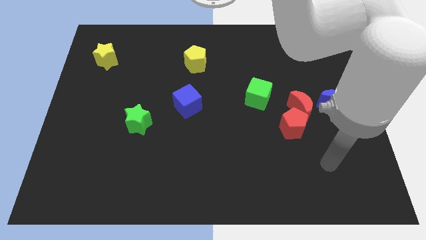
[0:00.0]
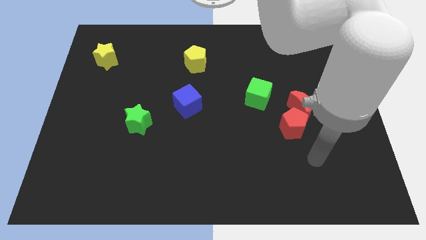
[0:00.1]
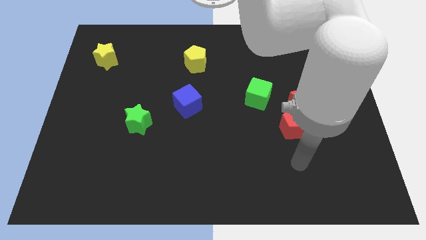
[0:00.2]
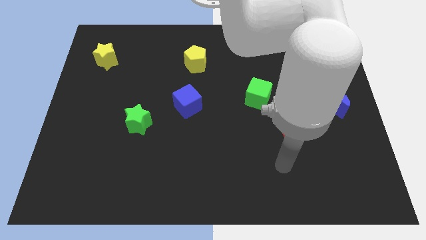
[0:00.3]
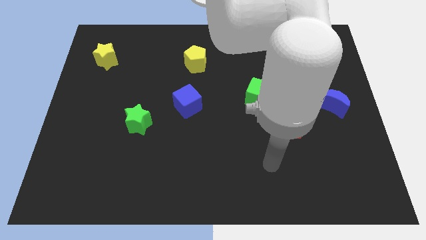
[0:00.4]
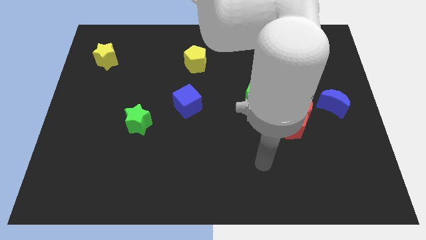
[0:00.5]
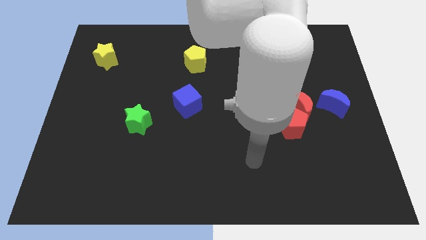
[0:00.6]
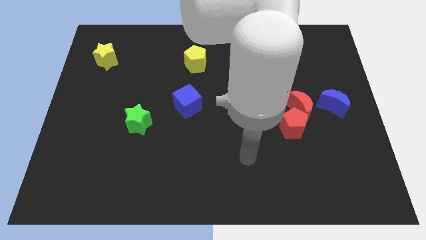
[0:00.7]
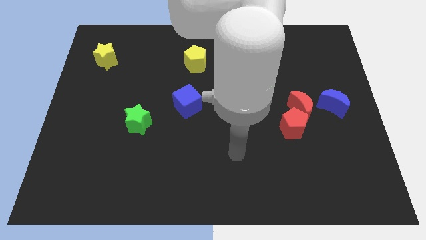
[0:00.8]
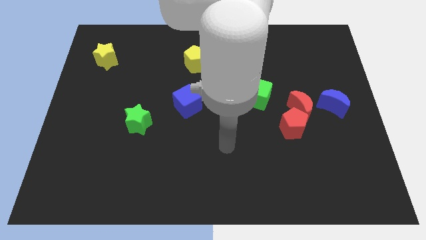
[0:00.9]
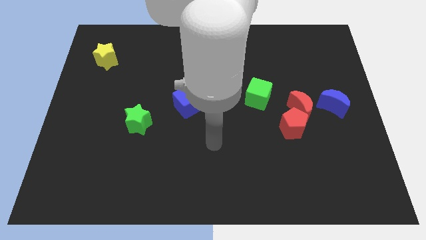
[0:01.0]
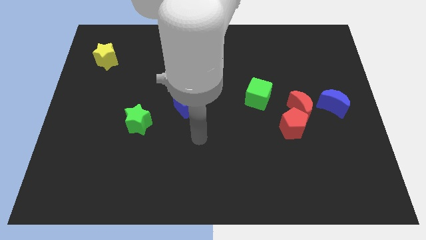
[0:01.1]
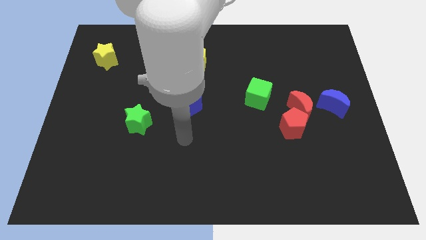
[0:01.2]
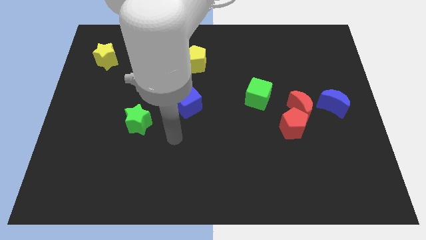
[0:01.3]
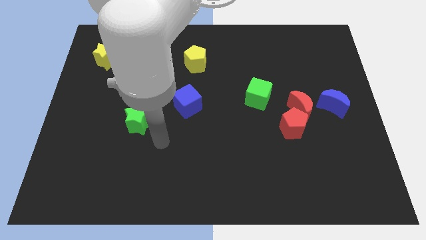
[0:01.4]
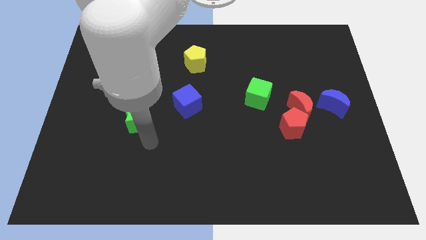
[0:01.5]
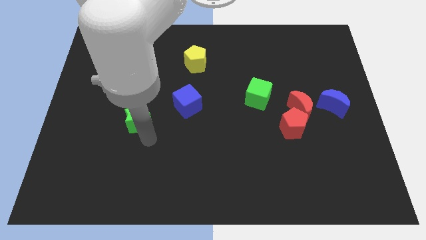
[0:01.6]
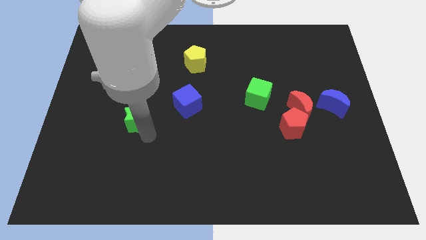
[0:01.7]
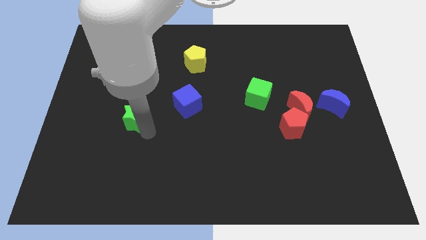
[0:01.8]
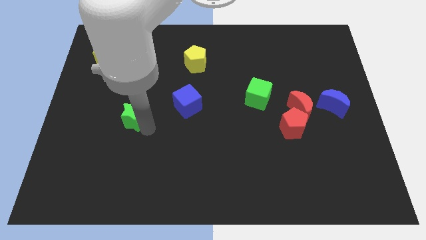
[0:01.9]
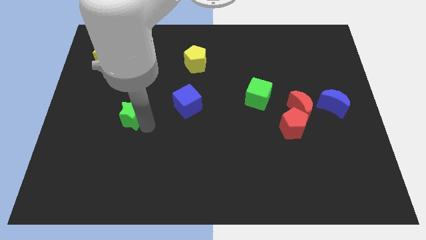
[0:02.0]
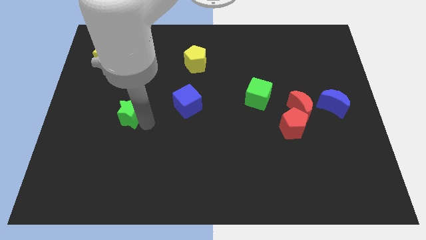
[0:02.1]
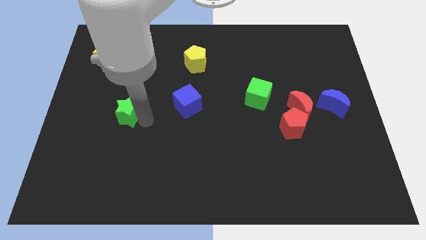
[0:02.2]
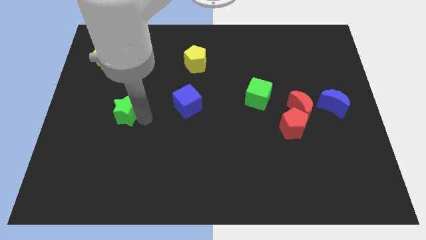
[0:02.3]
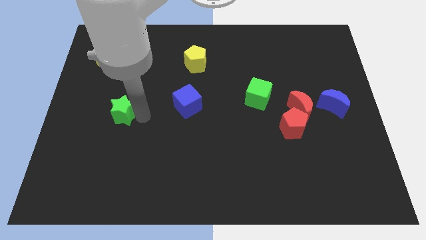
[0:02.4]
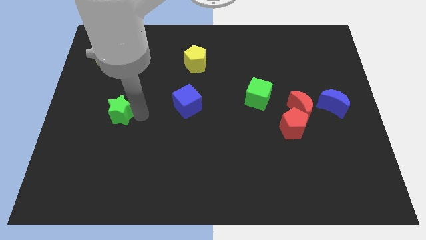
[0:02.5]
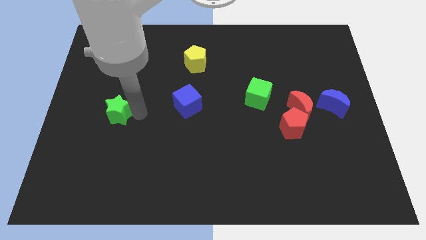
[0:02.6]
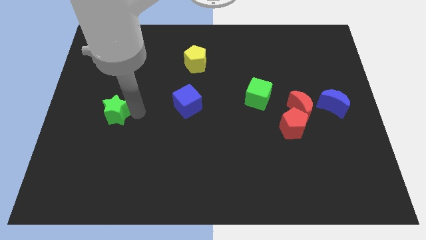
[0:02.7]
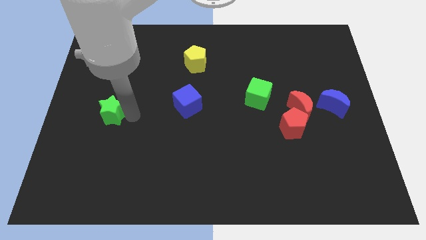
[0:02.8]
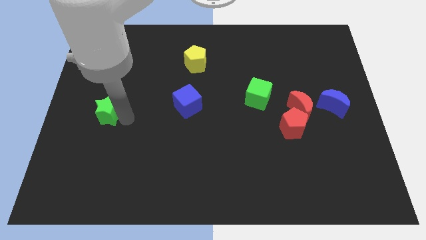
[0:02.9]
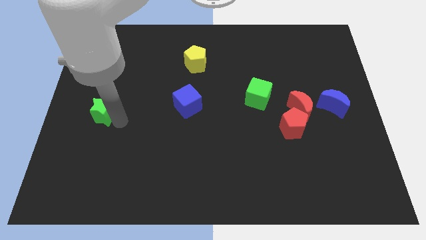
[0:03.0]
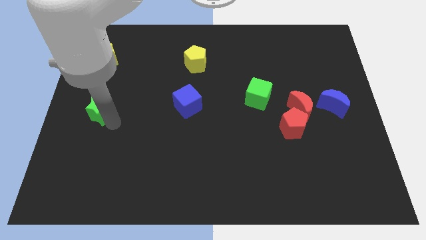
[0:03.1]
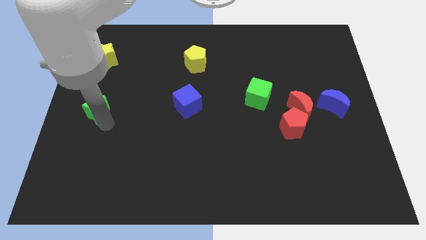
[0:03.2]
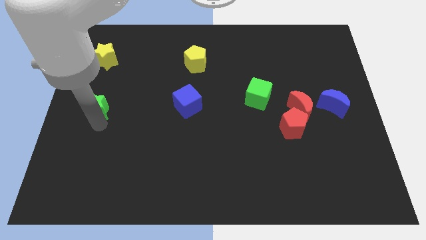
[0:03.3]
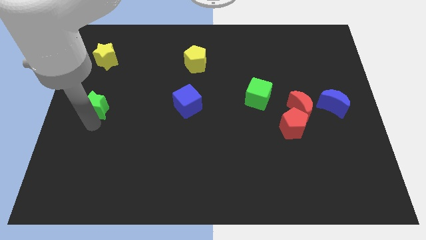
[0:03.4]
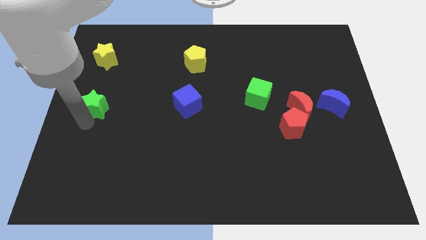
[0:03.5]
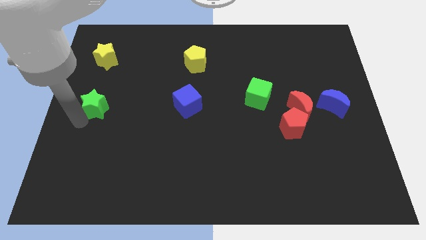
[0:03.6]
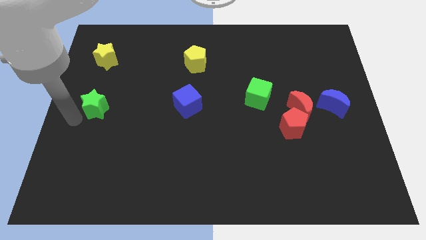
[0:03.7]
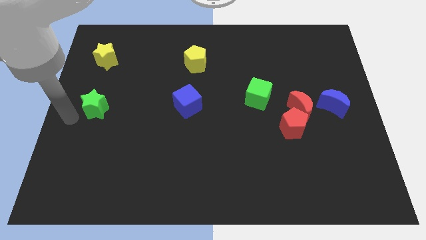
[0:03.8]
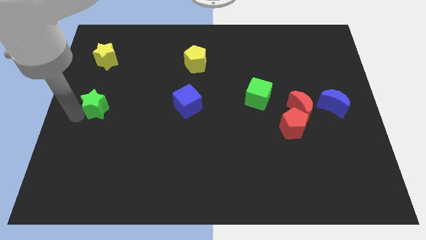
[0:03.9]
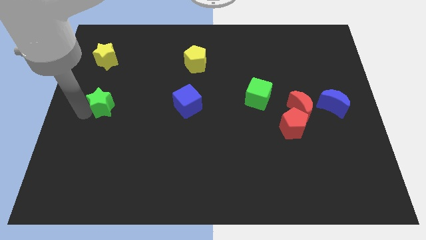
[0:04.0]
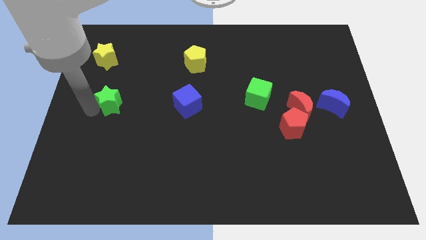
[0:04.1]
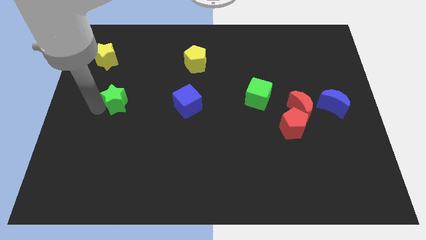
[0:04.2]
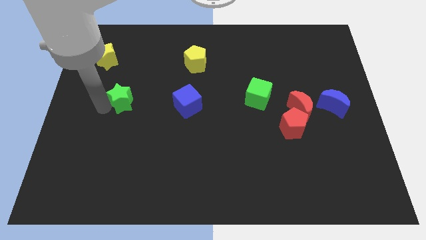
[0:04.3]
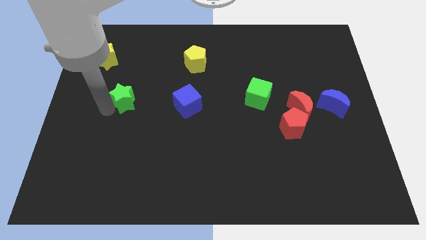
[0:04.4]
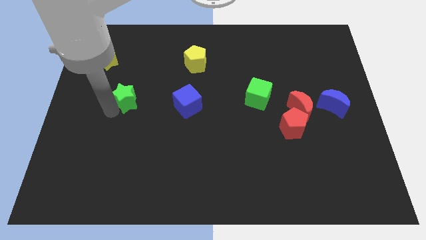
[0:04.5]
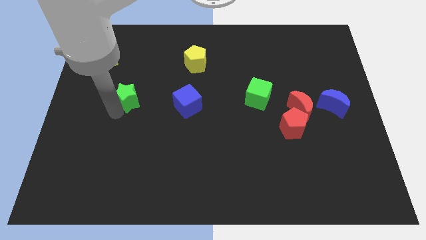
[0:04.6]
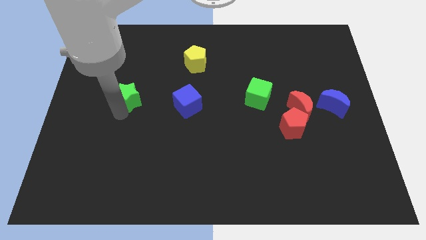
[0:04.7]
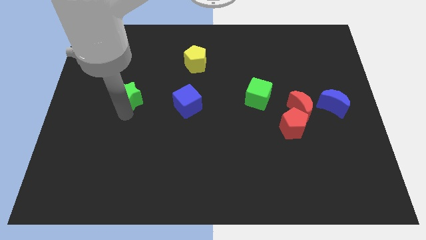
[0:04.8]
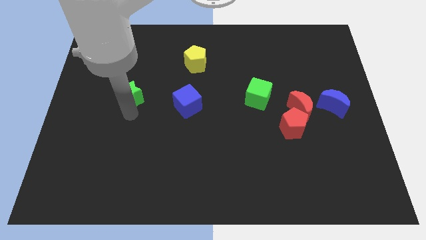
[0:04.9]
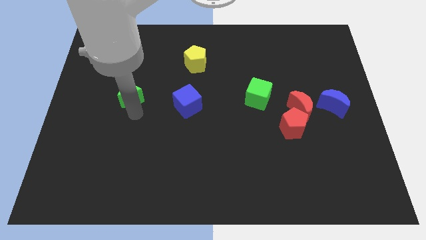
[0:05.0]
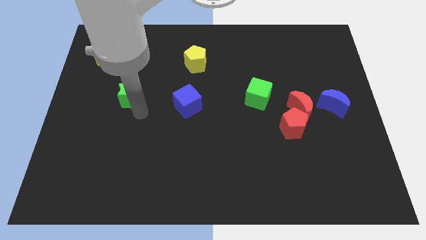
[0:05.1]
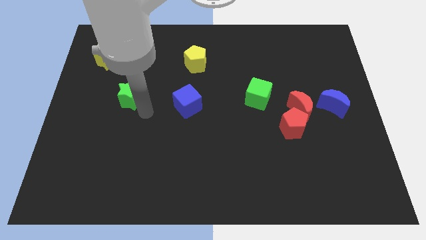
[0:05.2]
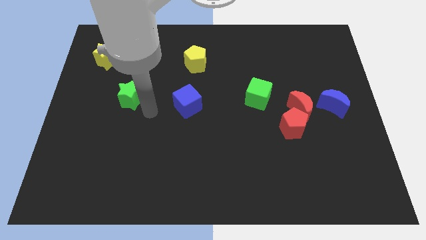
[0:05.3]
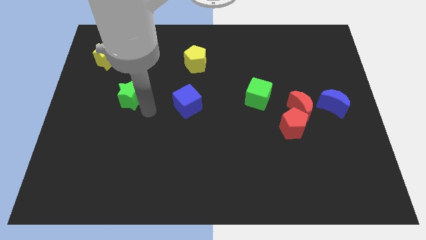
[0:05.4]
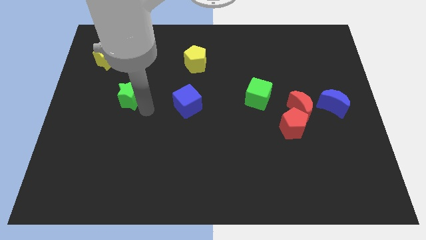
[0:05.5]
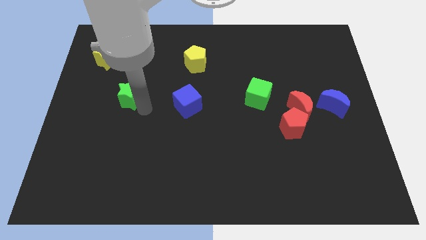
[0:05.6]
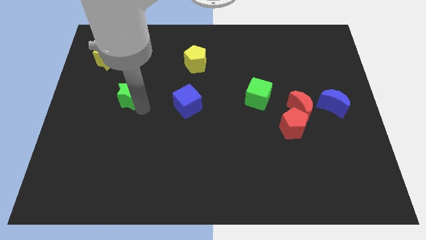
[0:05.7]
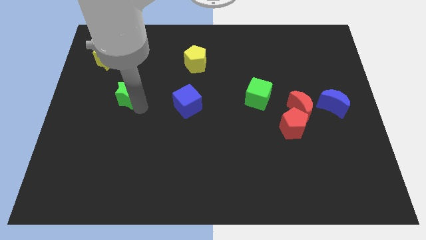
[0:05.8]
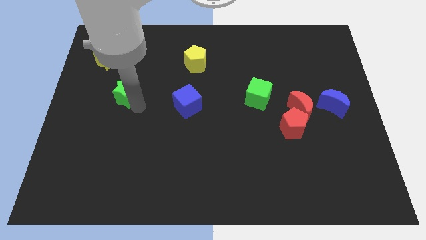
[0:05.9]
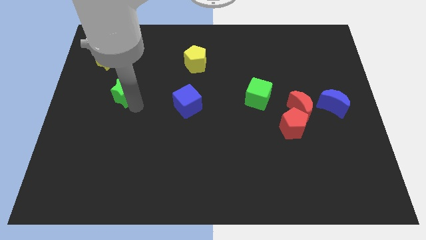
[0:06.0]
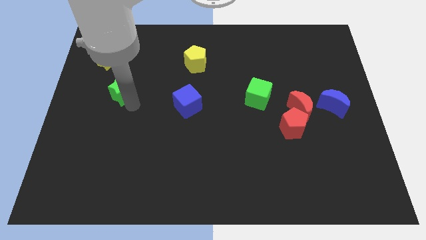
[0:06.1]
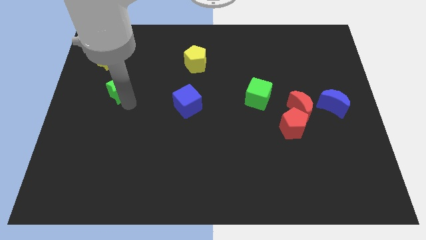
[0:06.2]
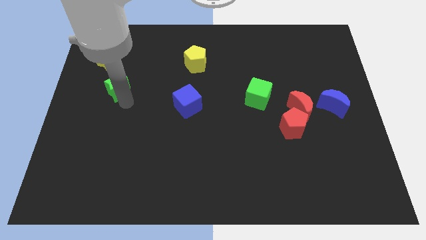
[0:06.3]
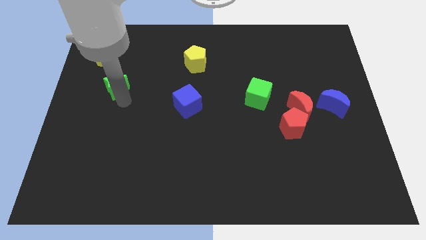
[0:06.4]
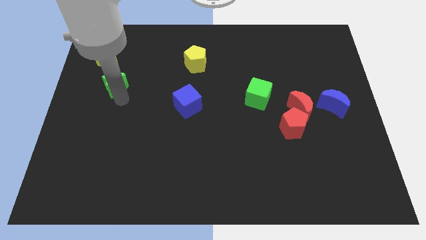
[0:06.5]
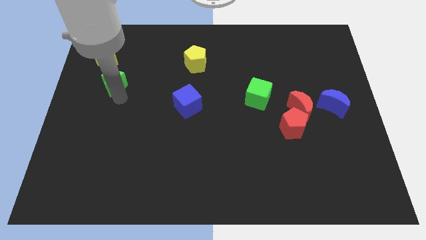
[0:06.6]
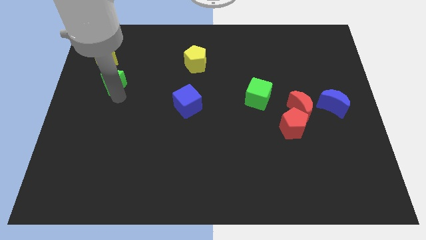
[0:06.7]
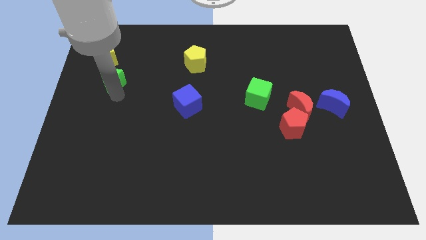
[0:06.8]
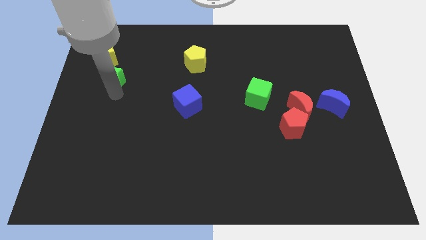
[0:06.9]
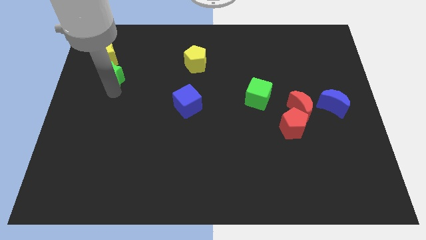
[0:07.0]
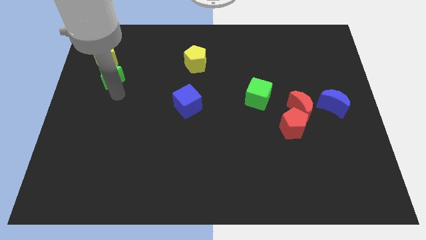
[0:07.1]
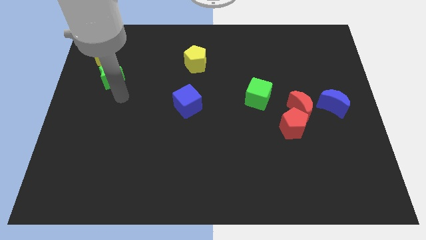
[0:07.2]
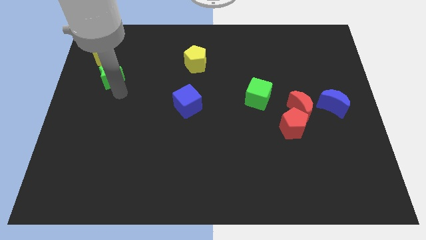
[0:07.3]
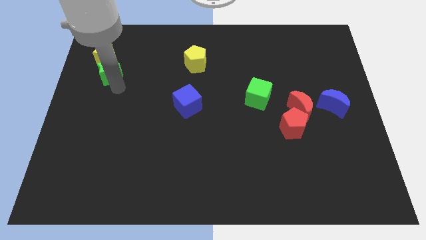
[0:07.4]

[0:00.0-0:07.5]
push the green star to the yellow star

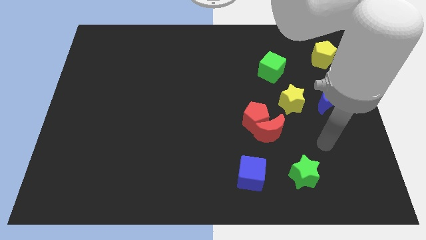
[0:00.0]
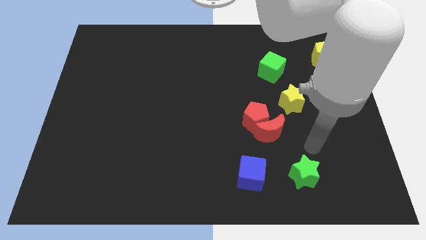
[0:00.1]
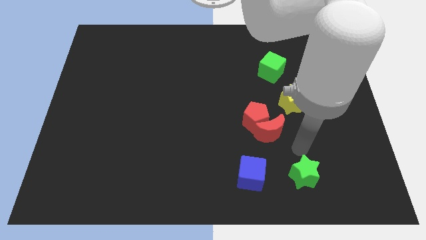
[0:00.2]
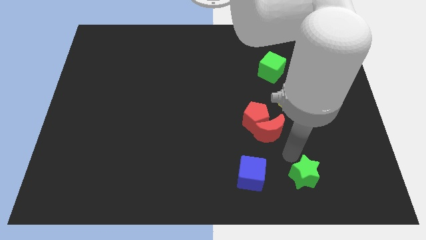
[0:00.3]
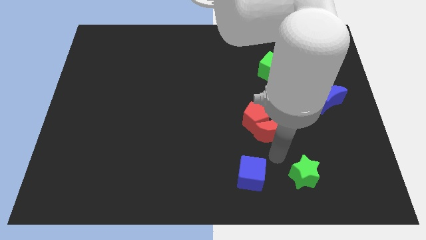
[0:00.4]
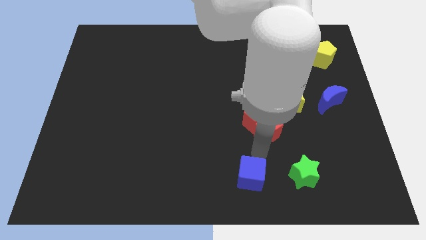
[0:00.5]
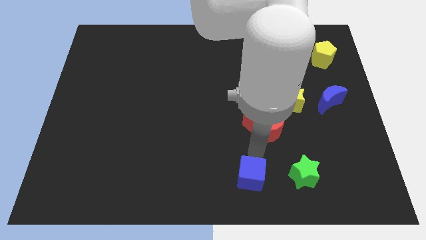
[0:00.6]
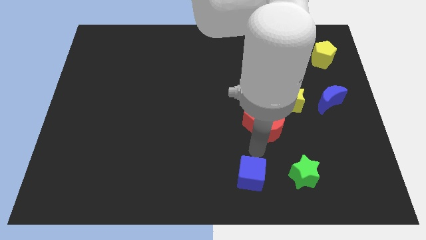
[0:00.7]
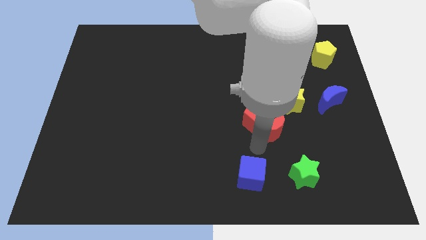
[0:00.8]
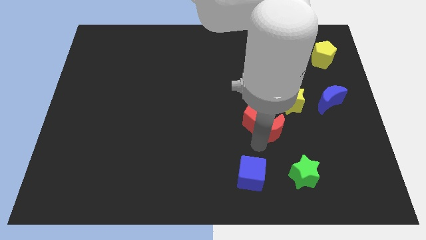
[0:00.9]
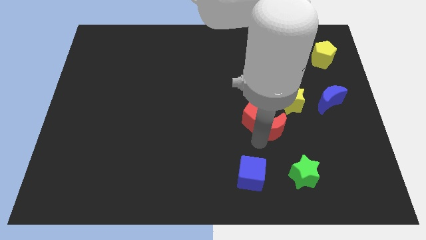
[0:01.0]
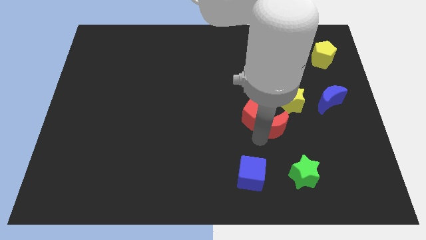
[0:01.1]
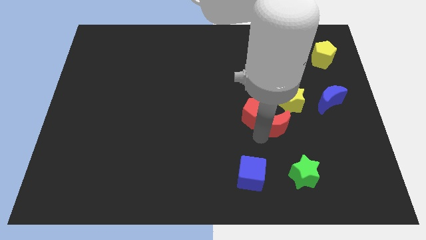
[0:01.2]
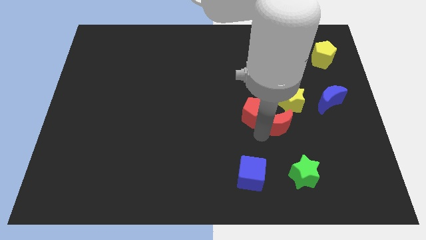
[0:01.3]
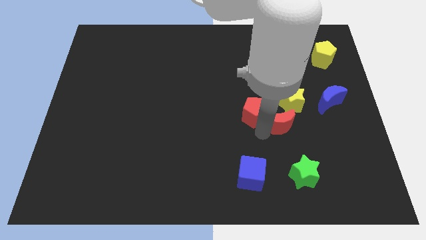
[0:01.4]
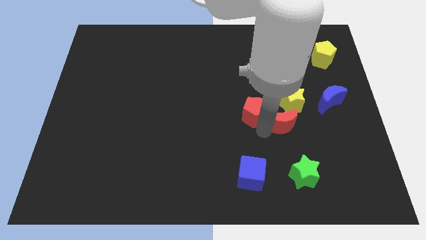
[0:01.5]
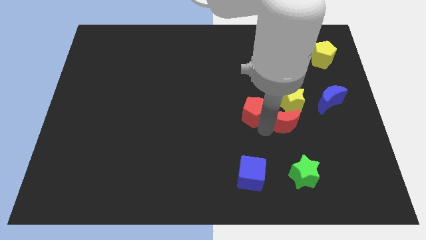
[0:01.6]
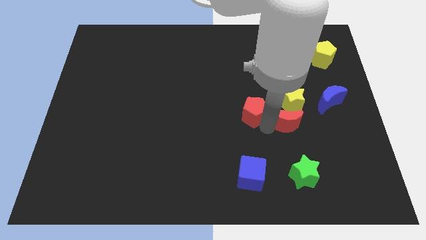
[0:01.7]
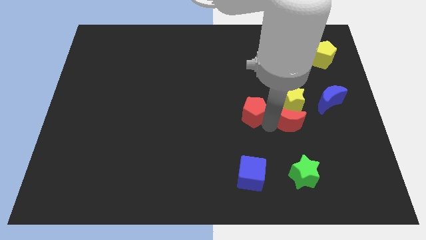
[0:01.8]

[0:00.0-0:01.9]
push the red moon close to the yellow star
